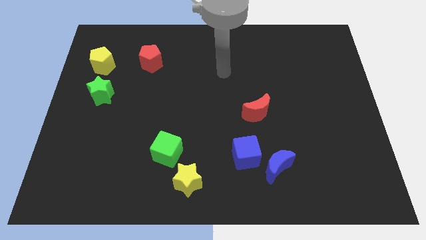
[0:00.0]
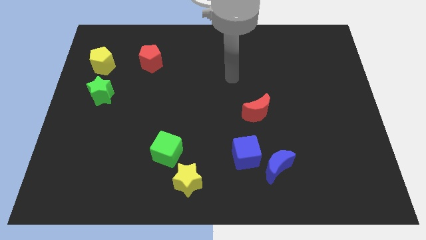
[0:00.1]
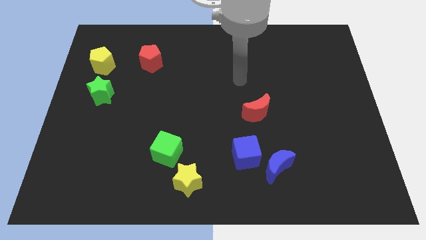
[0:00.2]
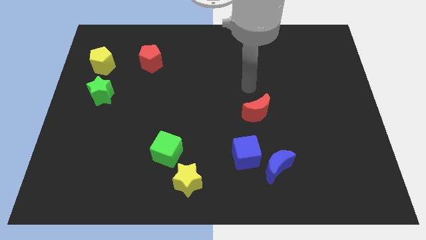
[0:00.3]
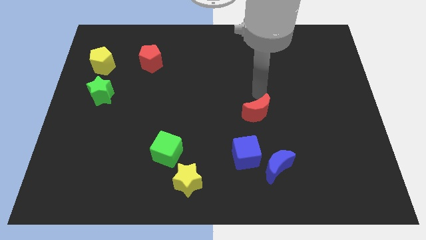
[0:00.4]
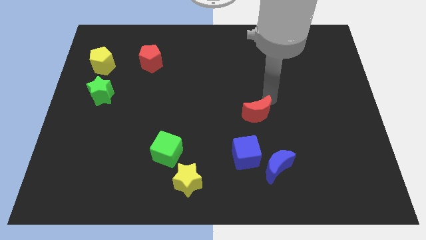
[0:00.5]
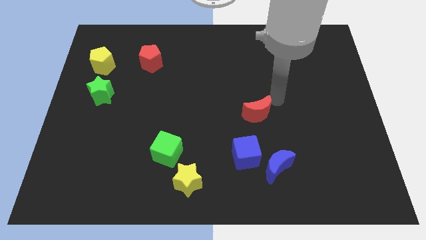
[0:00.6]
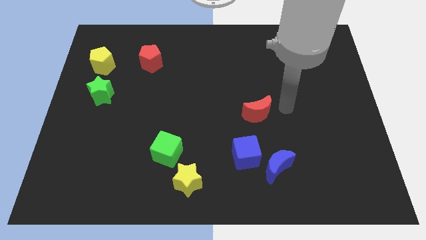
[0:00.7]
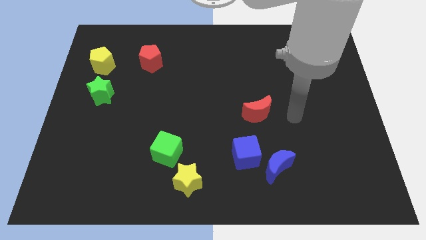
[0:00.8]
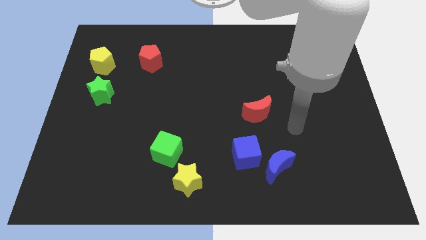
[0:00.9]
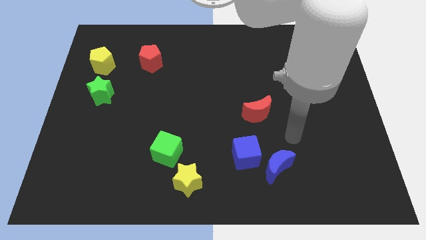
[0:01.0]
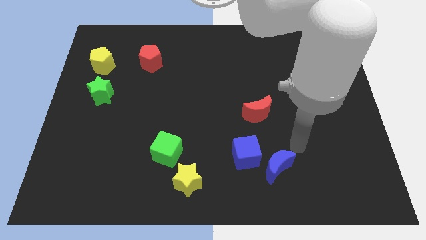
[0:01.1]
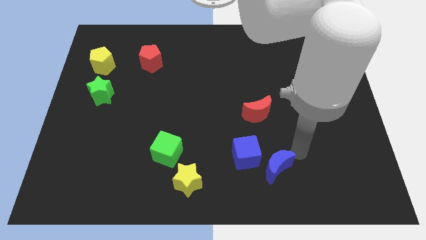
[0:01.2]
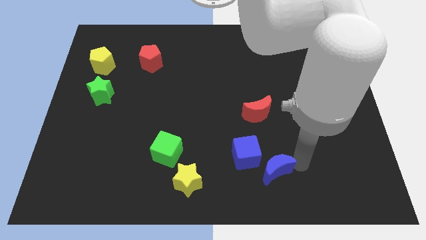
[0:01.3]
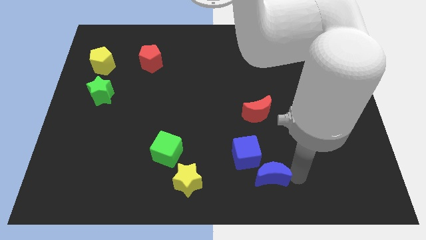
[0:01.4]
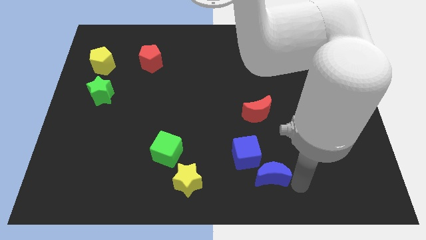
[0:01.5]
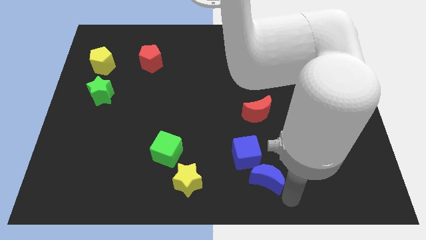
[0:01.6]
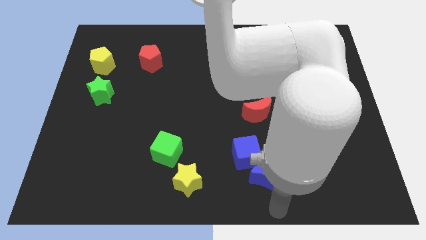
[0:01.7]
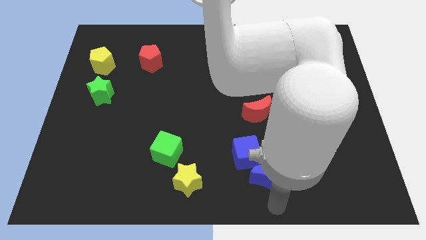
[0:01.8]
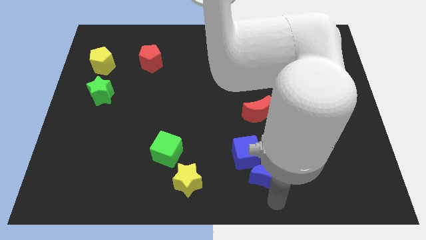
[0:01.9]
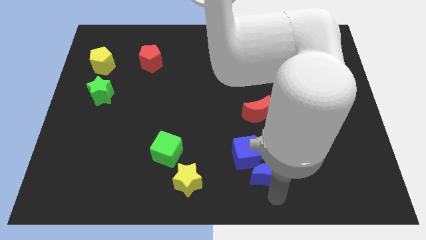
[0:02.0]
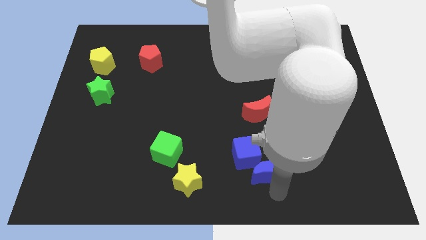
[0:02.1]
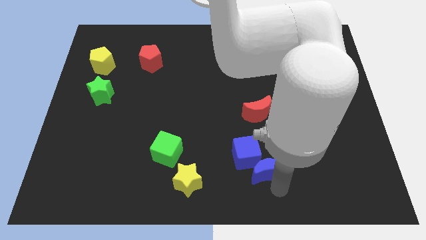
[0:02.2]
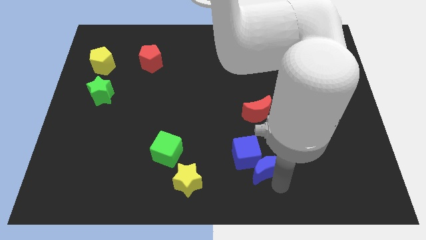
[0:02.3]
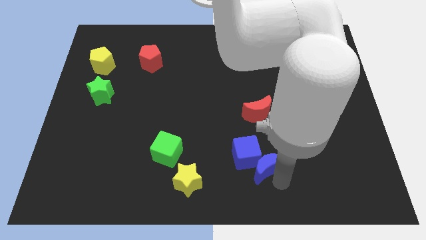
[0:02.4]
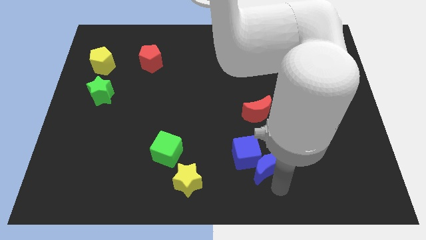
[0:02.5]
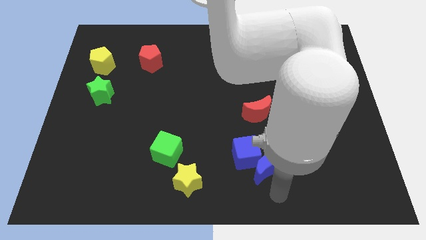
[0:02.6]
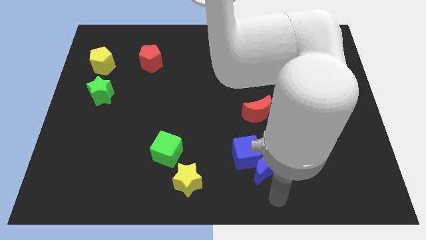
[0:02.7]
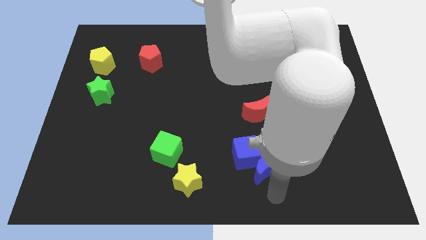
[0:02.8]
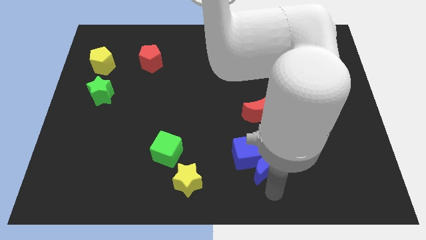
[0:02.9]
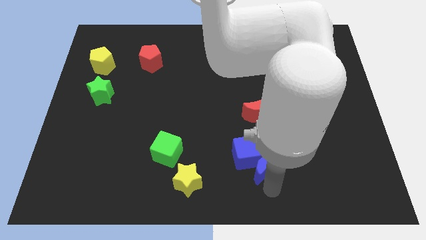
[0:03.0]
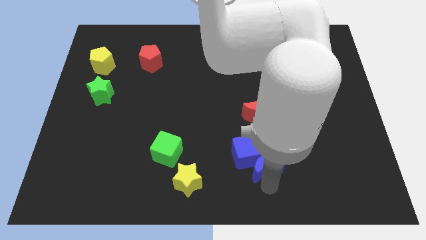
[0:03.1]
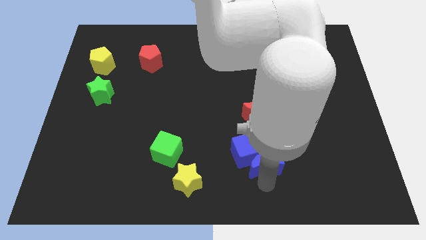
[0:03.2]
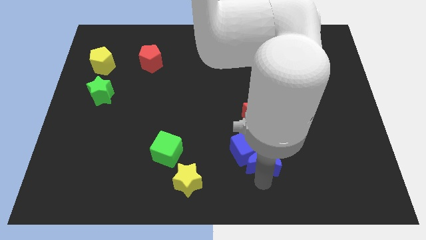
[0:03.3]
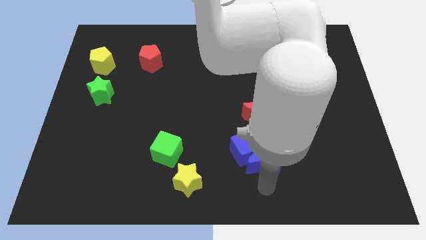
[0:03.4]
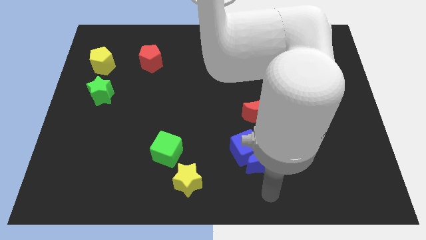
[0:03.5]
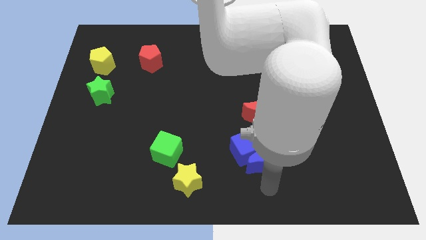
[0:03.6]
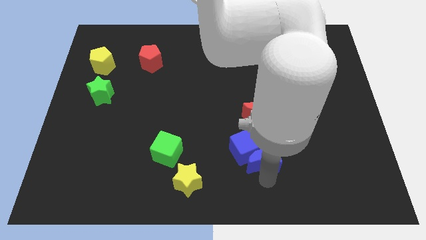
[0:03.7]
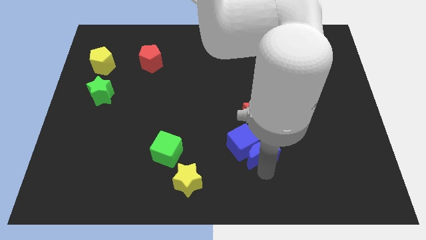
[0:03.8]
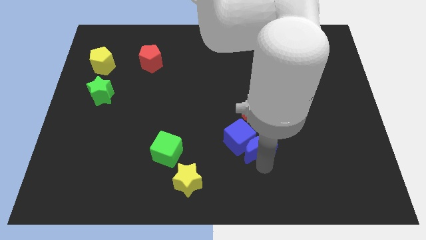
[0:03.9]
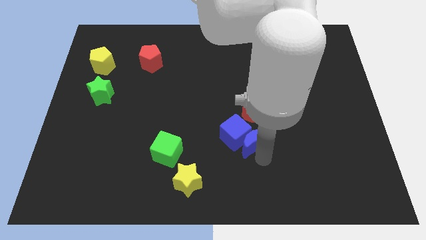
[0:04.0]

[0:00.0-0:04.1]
move the blue moon diagonally upwards and left a little bit

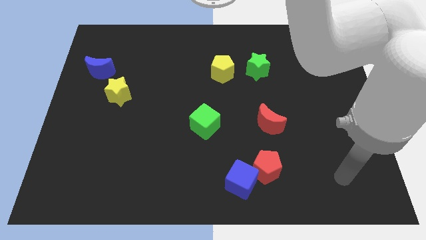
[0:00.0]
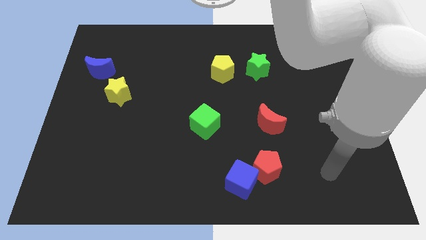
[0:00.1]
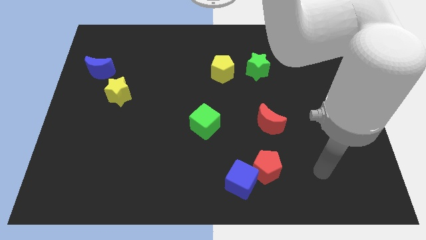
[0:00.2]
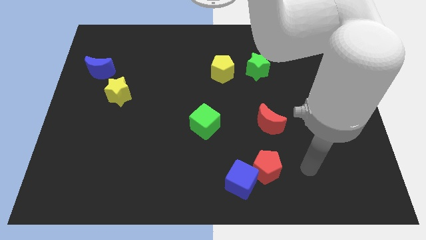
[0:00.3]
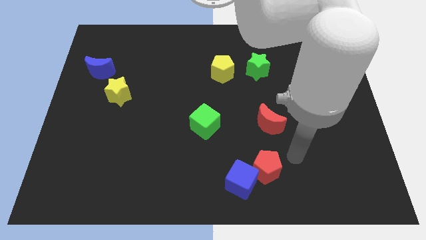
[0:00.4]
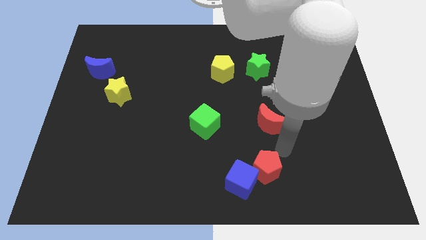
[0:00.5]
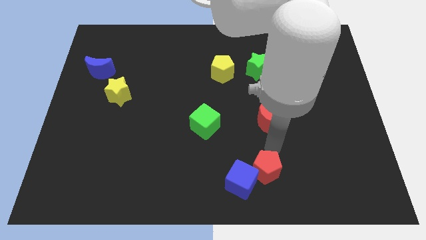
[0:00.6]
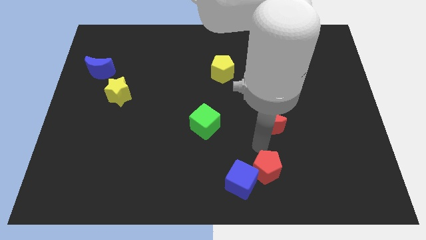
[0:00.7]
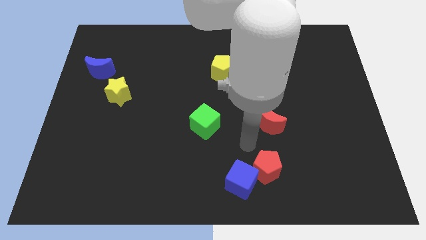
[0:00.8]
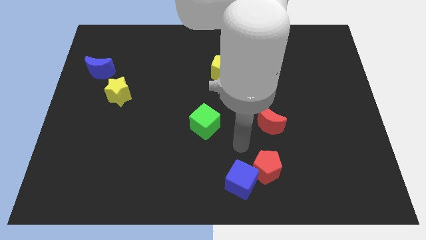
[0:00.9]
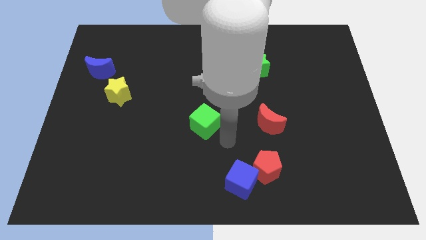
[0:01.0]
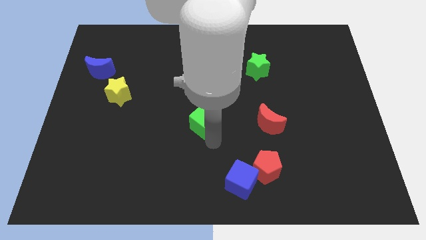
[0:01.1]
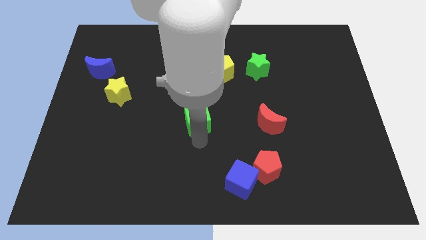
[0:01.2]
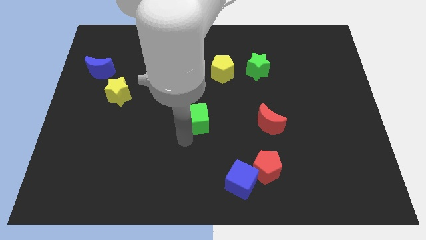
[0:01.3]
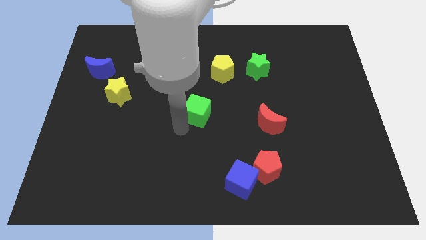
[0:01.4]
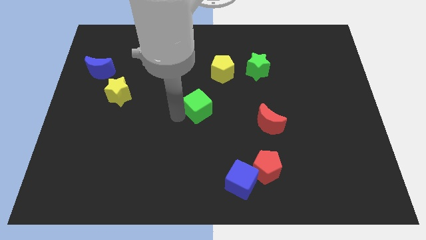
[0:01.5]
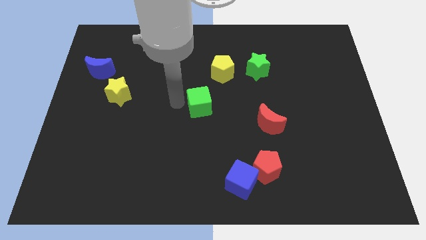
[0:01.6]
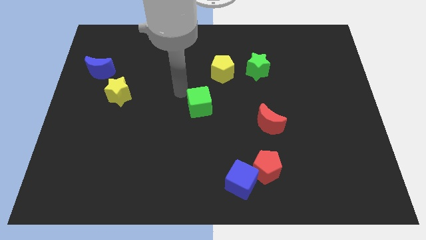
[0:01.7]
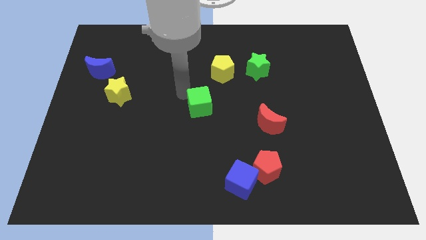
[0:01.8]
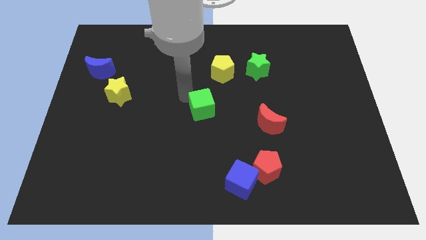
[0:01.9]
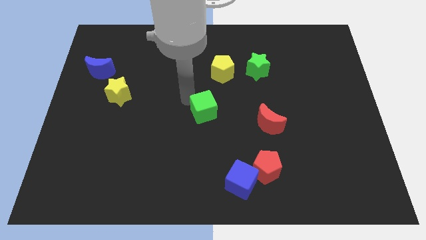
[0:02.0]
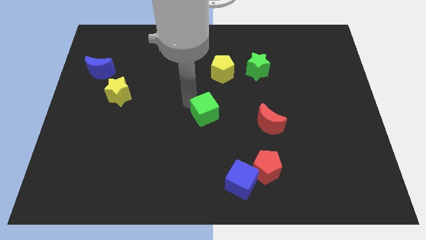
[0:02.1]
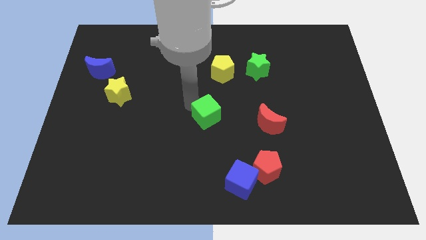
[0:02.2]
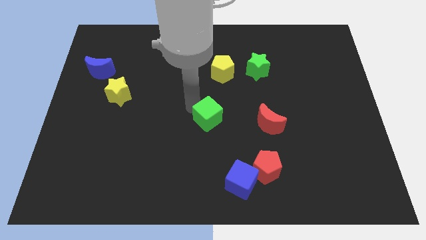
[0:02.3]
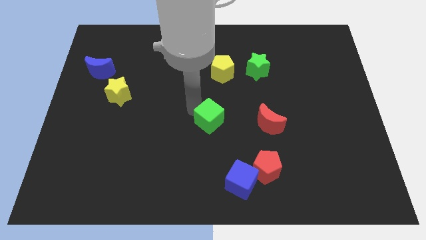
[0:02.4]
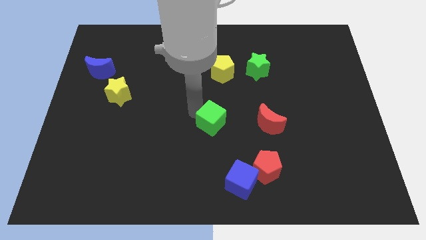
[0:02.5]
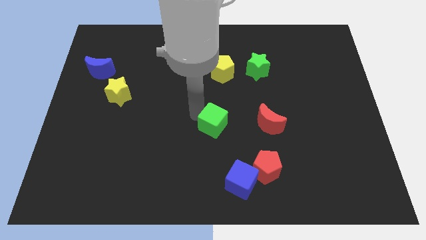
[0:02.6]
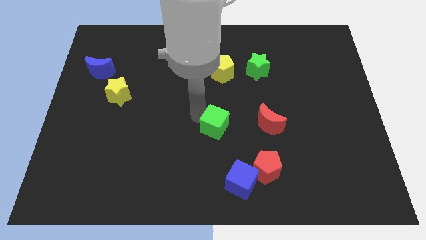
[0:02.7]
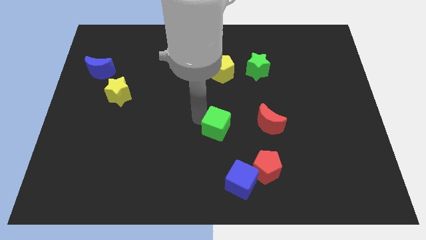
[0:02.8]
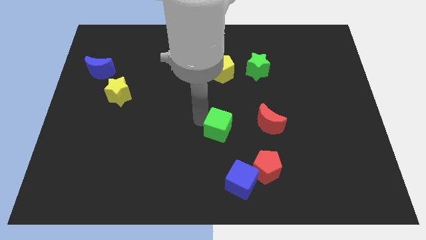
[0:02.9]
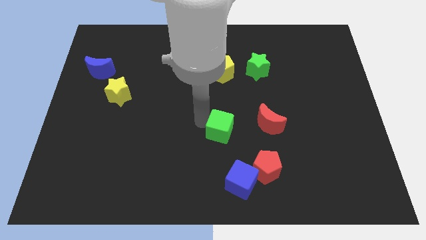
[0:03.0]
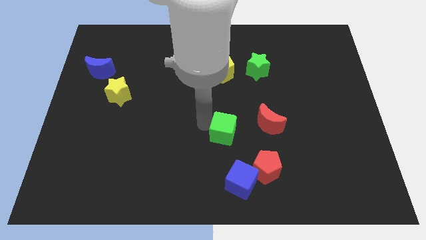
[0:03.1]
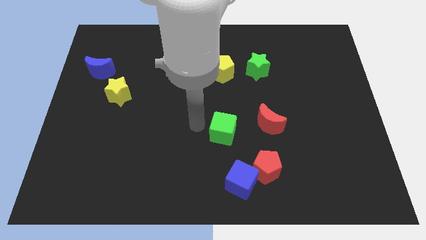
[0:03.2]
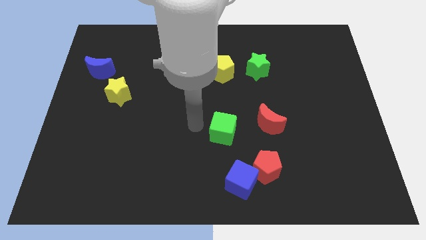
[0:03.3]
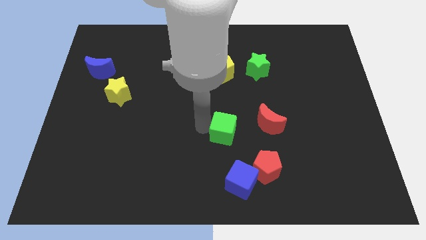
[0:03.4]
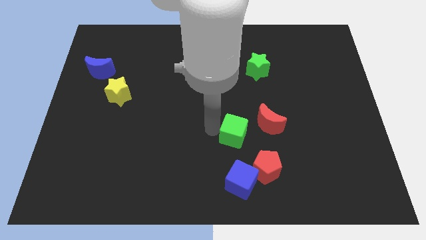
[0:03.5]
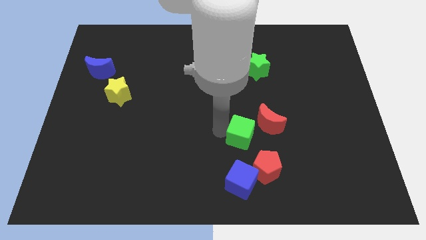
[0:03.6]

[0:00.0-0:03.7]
push the green cube to the right a little bit

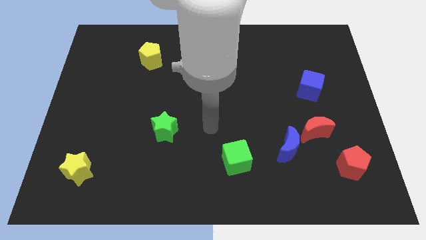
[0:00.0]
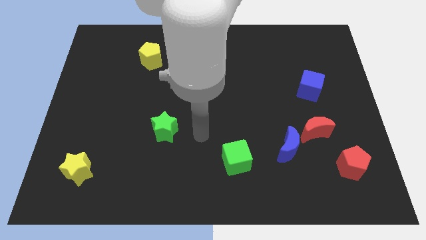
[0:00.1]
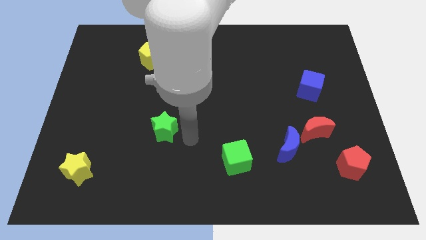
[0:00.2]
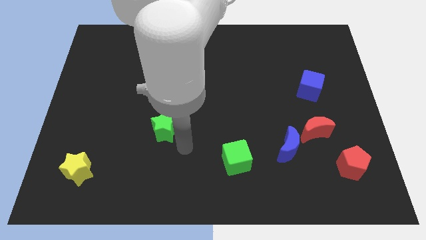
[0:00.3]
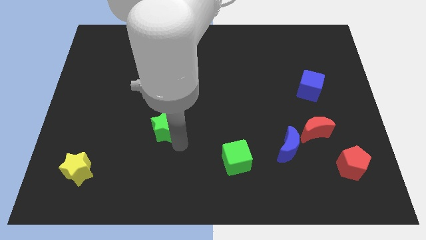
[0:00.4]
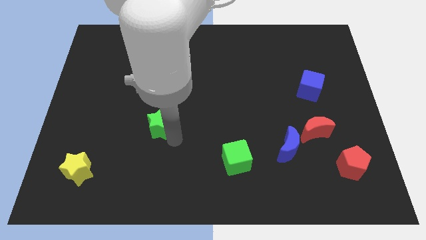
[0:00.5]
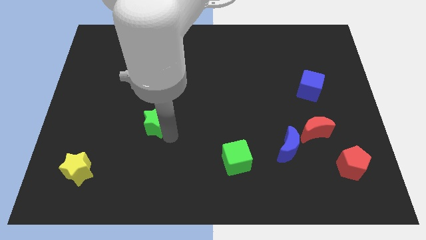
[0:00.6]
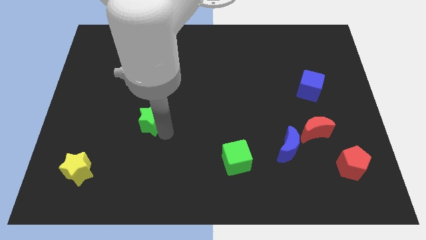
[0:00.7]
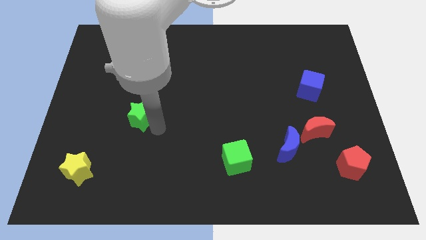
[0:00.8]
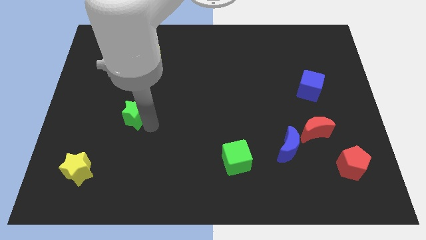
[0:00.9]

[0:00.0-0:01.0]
move the green star up and to the left a little
